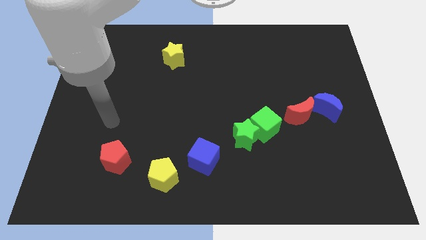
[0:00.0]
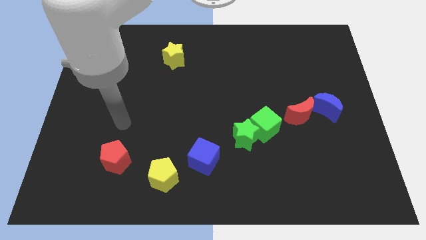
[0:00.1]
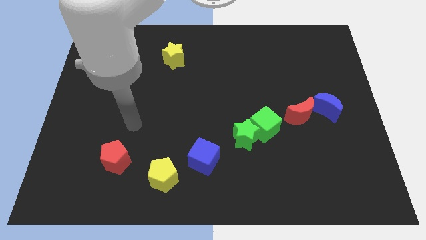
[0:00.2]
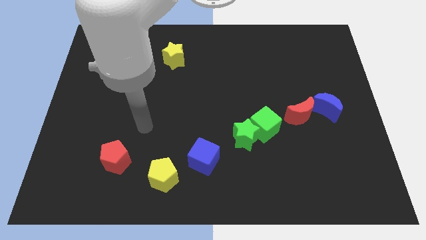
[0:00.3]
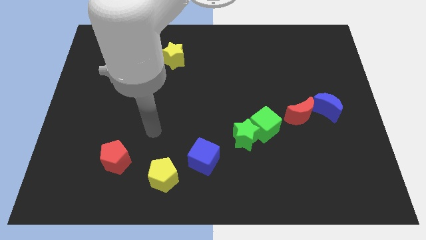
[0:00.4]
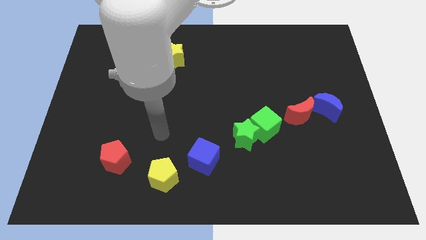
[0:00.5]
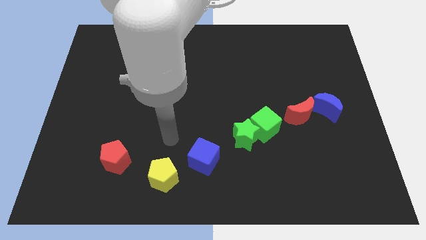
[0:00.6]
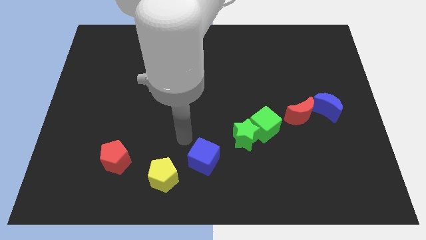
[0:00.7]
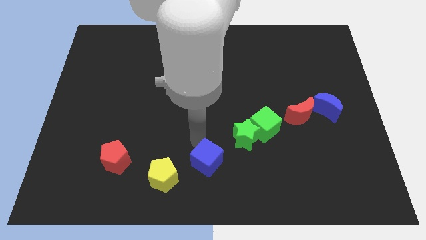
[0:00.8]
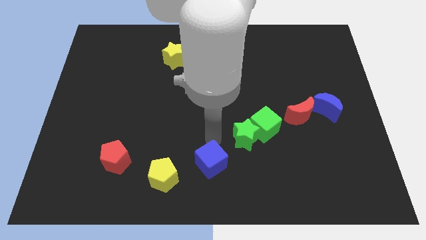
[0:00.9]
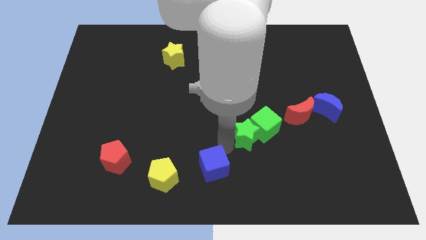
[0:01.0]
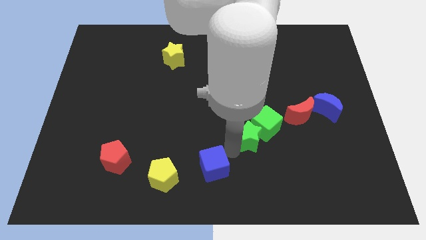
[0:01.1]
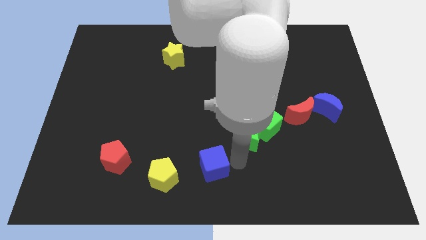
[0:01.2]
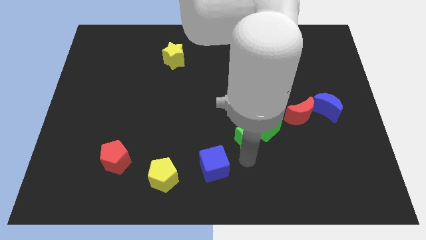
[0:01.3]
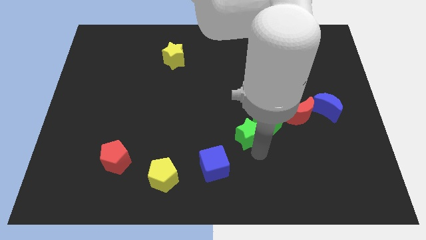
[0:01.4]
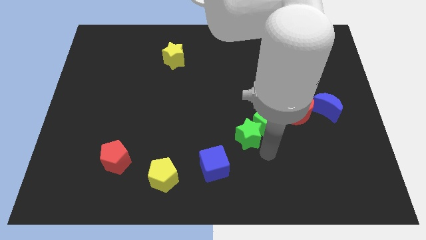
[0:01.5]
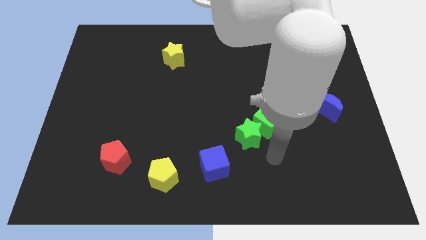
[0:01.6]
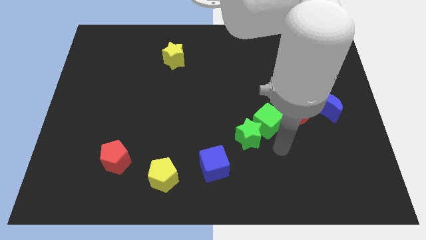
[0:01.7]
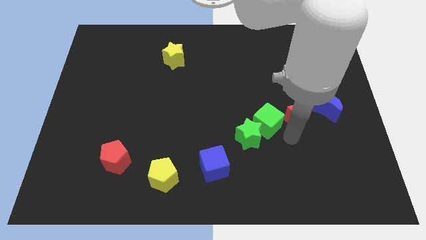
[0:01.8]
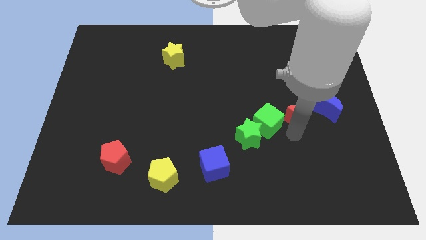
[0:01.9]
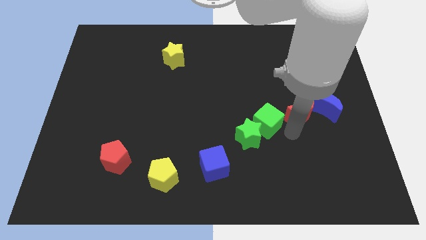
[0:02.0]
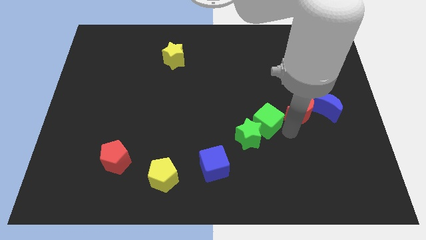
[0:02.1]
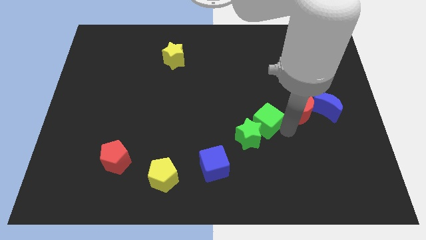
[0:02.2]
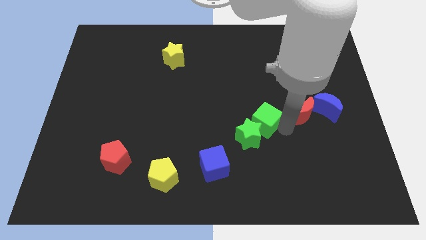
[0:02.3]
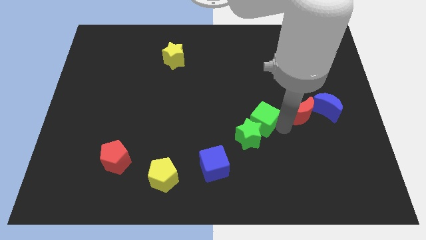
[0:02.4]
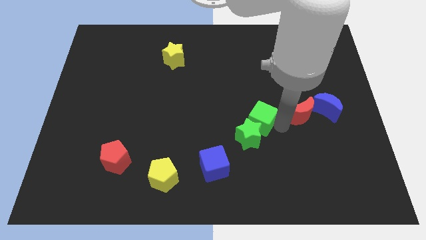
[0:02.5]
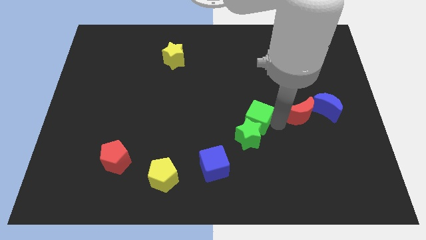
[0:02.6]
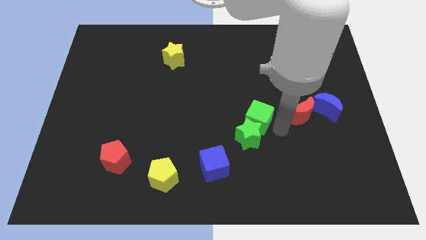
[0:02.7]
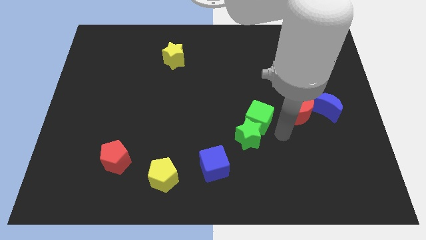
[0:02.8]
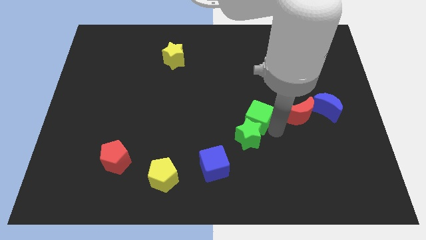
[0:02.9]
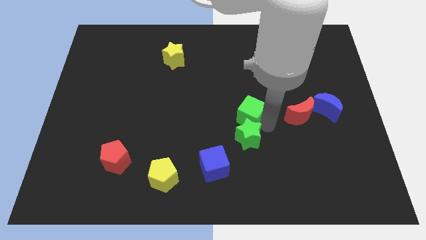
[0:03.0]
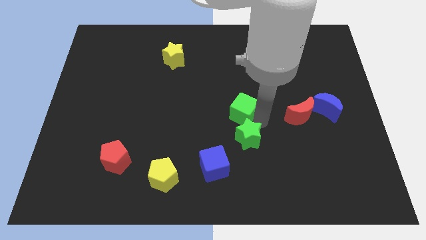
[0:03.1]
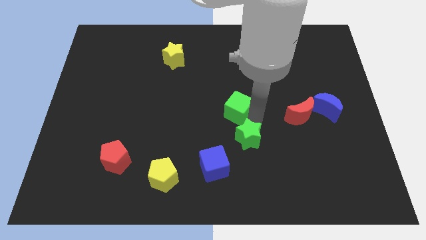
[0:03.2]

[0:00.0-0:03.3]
slightly move the green cube up and to the left diagonally

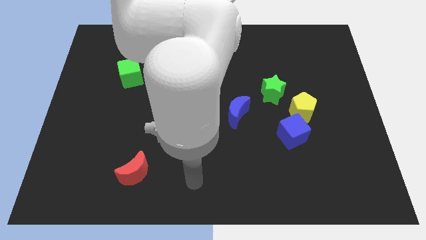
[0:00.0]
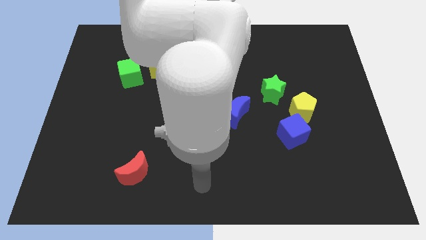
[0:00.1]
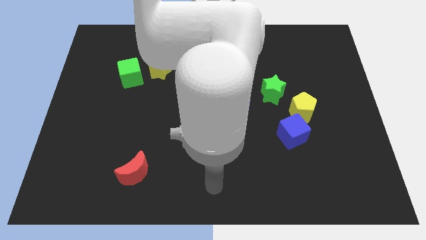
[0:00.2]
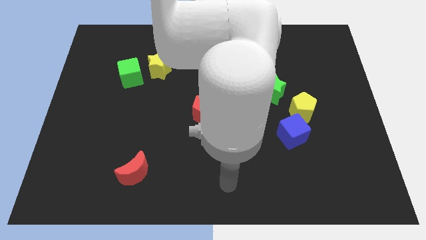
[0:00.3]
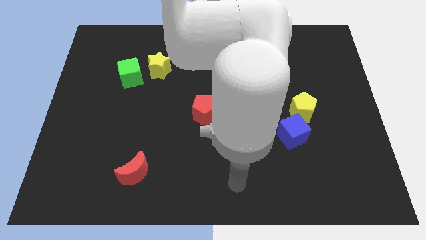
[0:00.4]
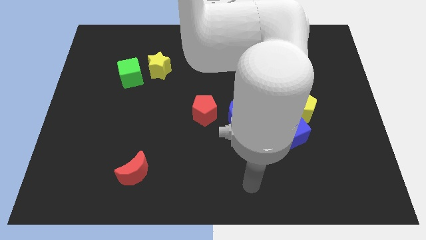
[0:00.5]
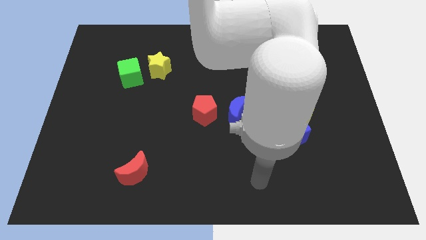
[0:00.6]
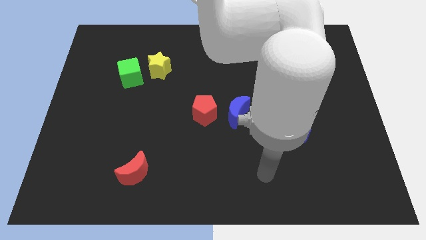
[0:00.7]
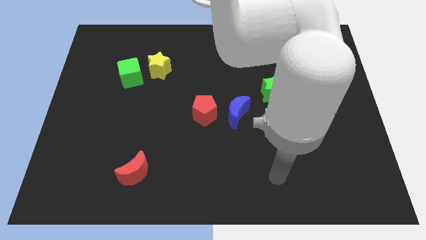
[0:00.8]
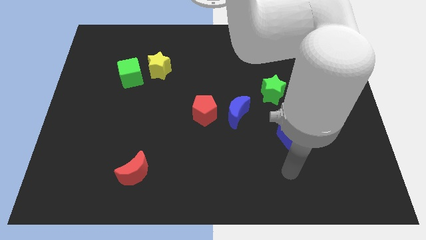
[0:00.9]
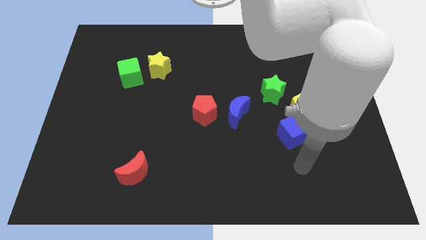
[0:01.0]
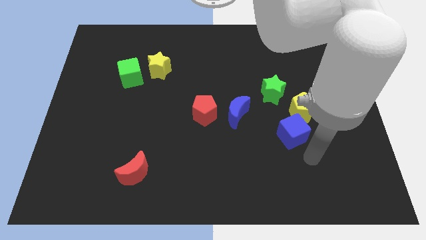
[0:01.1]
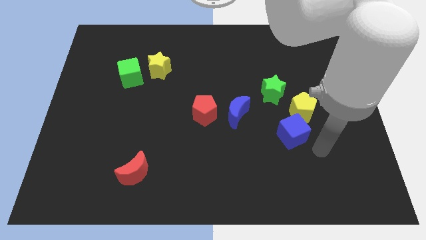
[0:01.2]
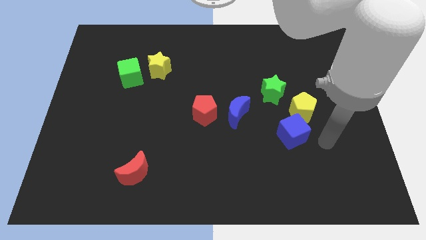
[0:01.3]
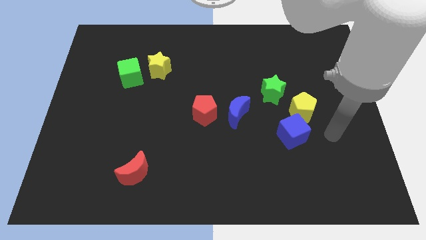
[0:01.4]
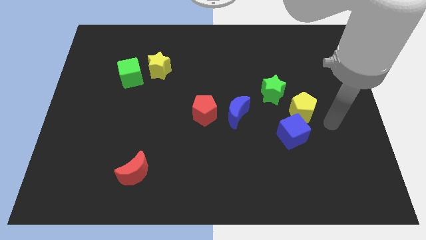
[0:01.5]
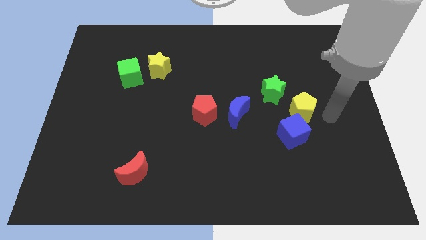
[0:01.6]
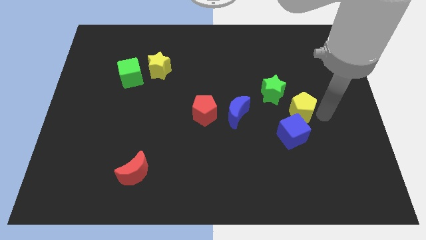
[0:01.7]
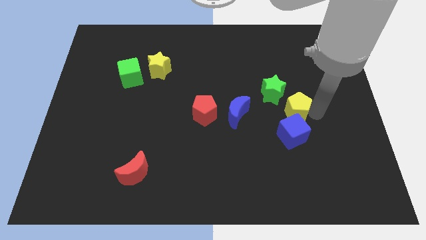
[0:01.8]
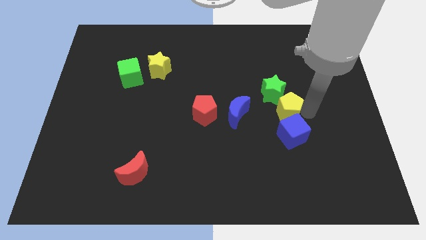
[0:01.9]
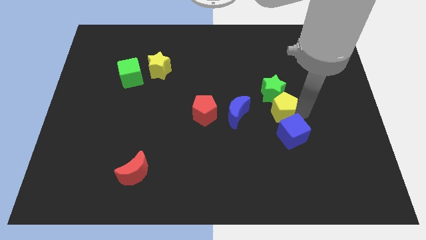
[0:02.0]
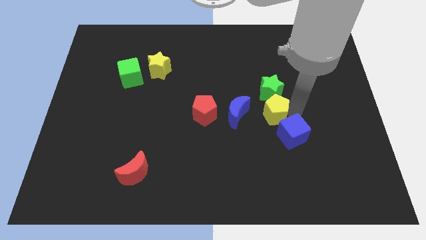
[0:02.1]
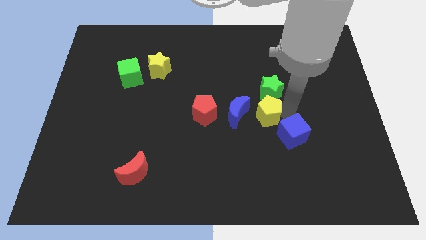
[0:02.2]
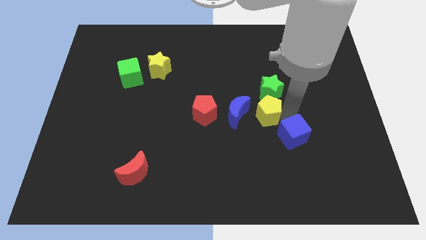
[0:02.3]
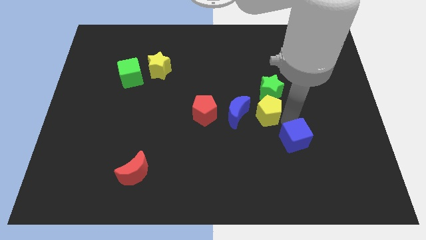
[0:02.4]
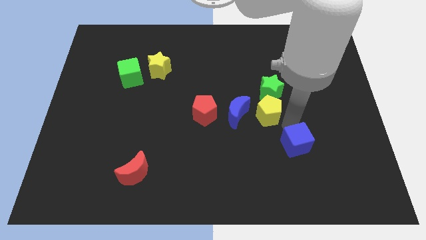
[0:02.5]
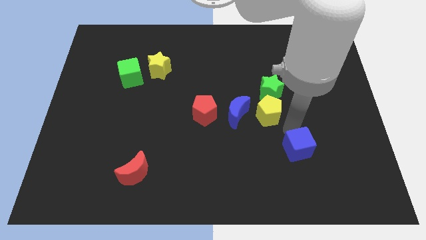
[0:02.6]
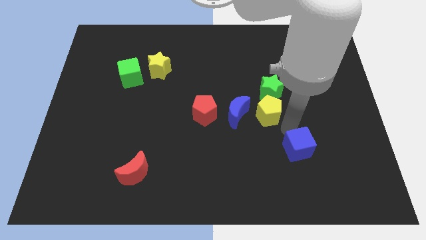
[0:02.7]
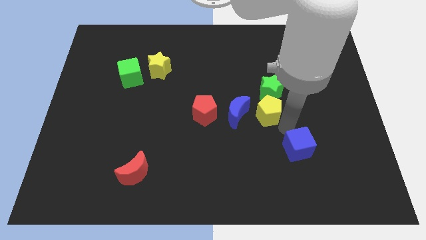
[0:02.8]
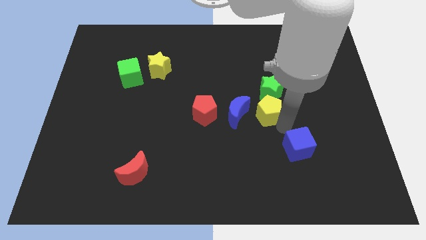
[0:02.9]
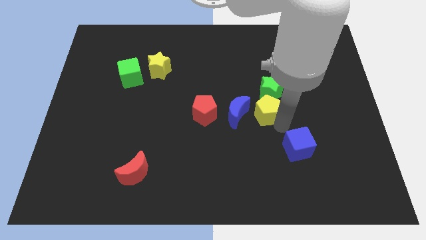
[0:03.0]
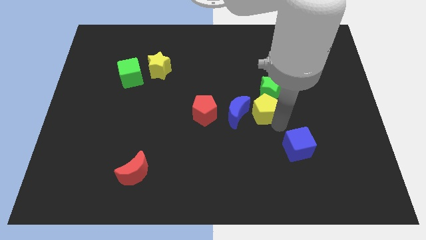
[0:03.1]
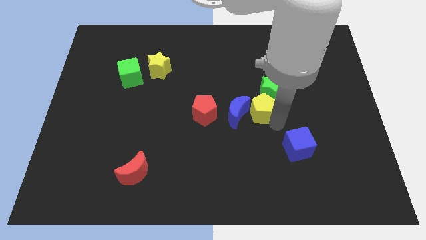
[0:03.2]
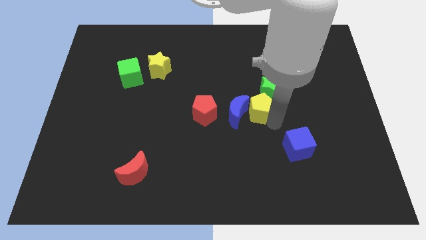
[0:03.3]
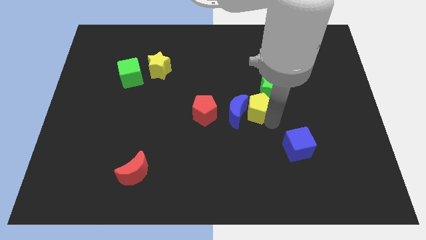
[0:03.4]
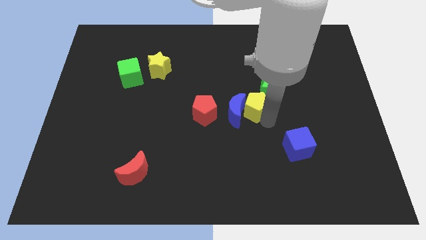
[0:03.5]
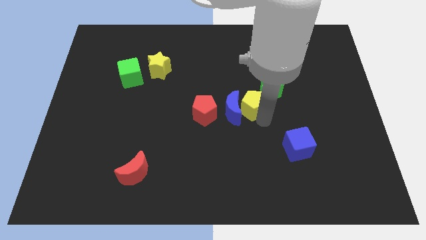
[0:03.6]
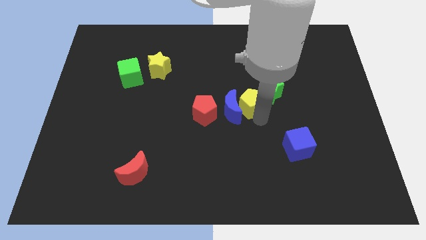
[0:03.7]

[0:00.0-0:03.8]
slightly push the yellow pentagon diagonally up and left

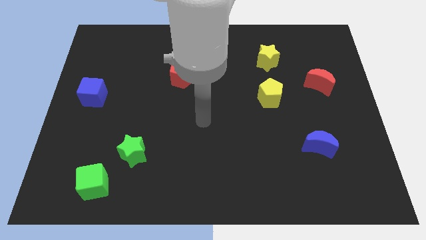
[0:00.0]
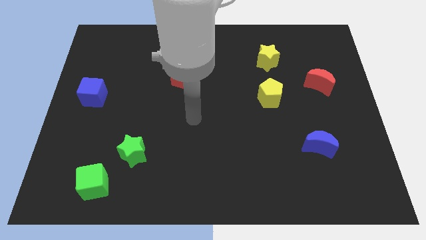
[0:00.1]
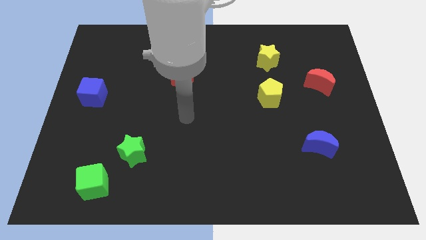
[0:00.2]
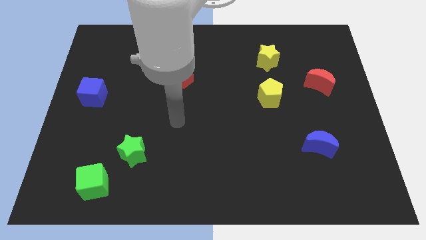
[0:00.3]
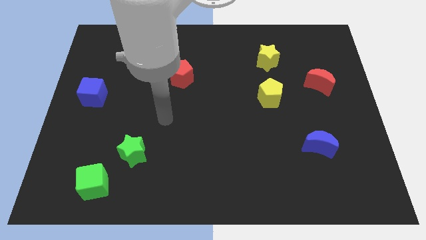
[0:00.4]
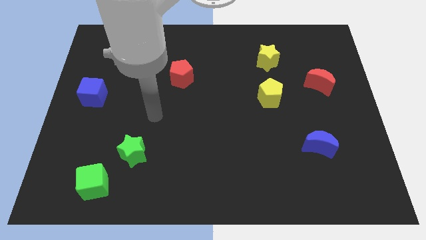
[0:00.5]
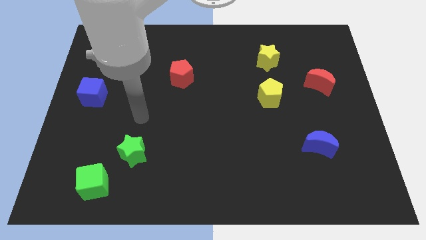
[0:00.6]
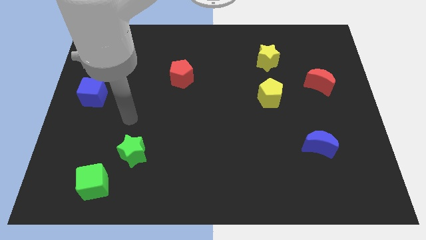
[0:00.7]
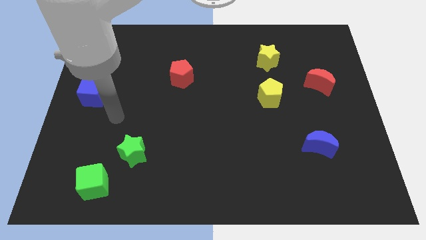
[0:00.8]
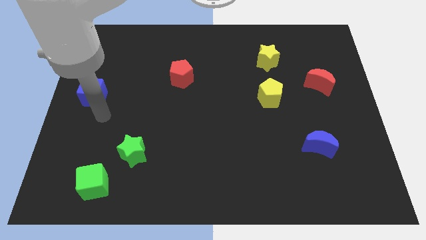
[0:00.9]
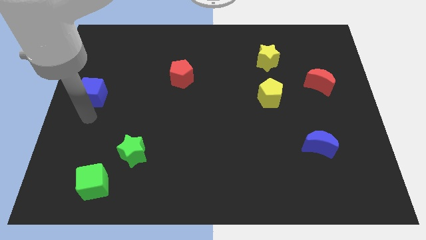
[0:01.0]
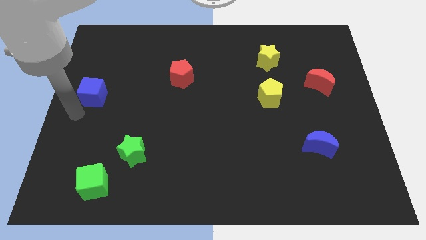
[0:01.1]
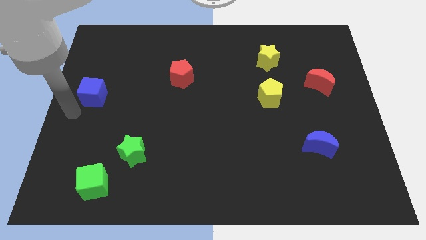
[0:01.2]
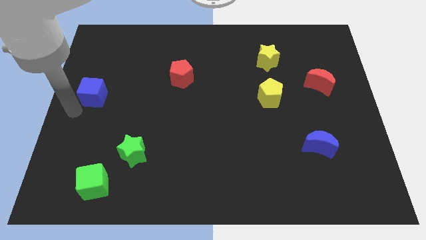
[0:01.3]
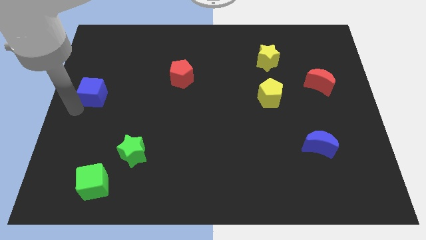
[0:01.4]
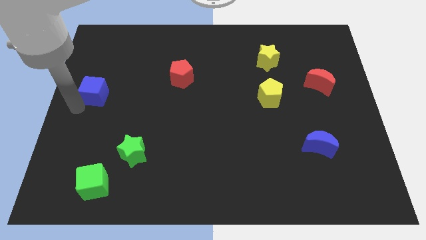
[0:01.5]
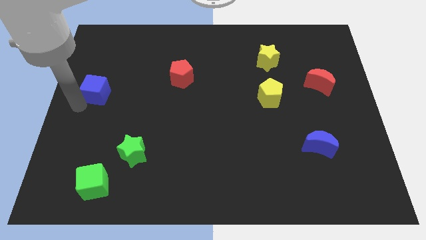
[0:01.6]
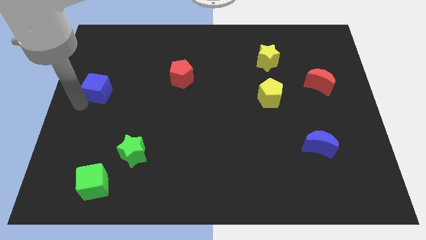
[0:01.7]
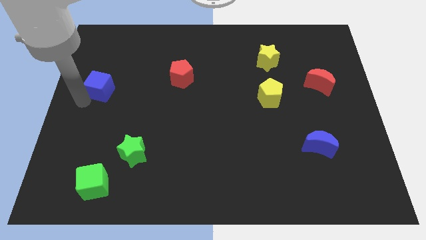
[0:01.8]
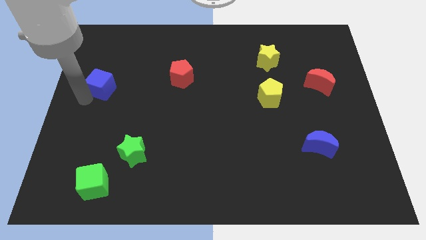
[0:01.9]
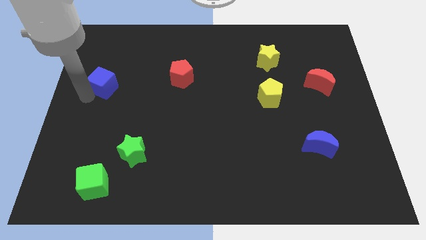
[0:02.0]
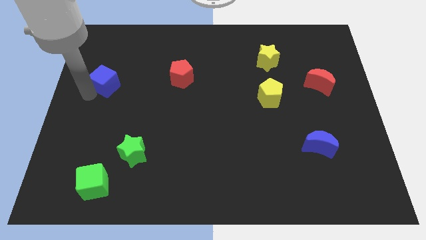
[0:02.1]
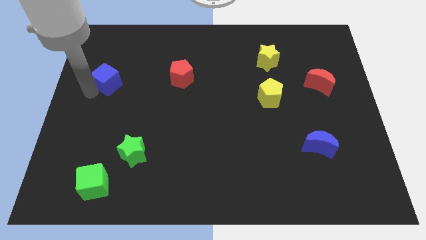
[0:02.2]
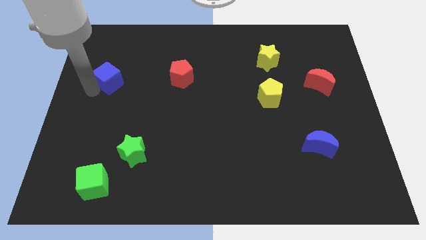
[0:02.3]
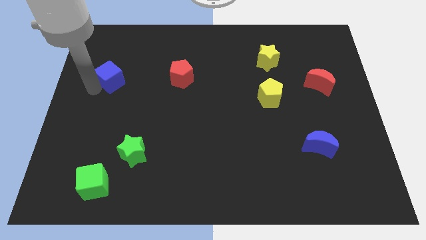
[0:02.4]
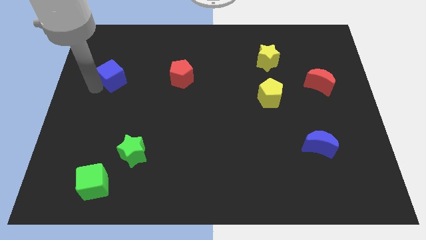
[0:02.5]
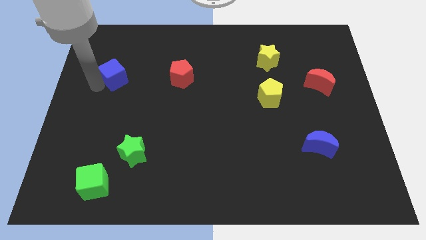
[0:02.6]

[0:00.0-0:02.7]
slightly push the blue cube up and then to the right
